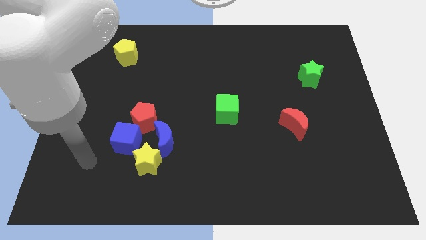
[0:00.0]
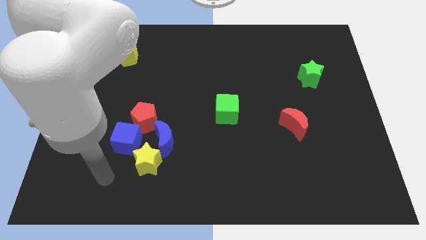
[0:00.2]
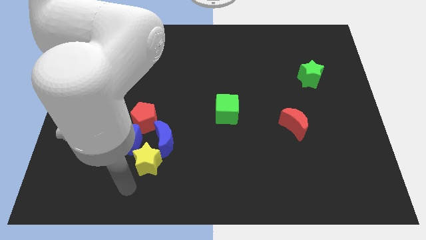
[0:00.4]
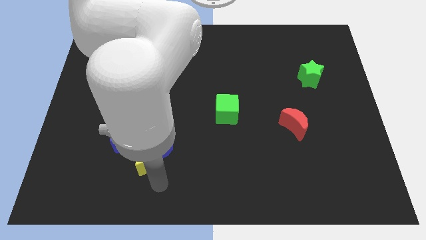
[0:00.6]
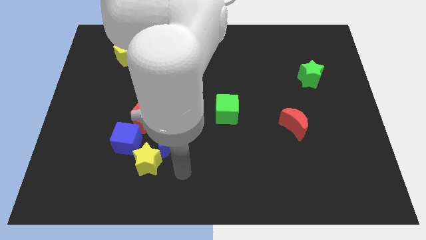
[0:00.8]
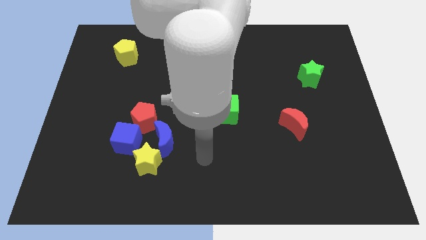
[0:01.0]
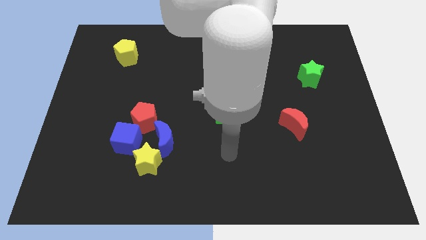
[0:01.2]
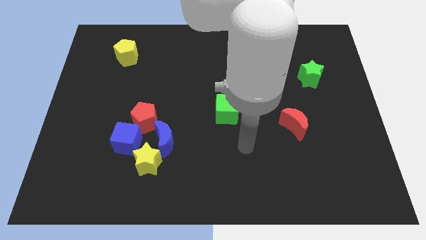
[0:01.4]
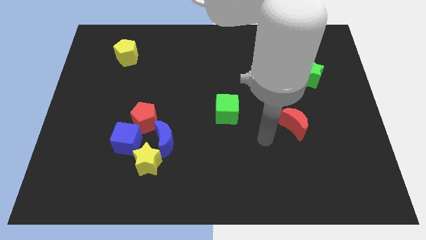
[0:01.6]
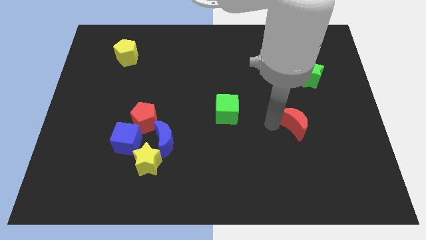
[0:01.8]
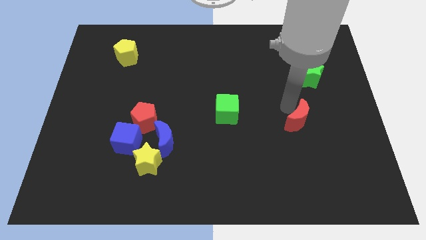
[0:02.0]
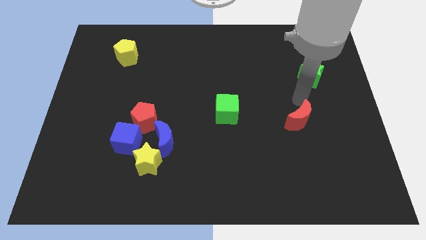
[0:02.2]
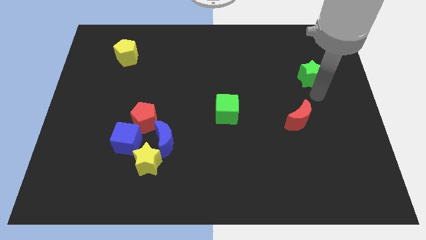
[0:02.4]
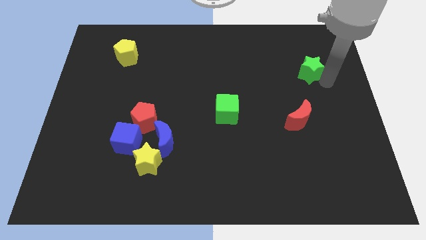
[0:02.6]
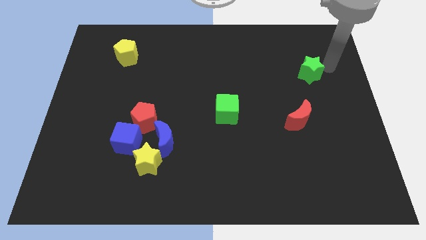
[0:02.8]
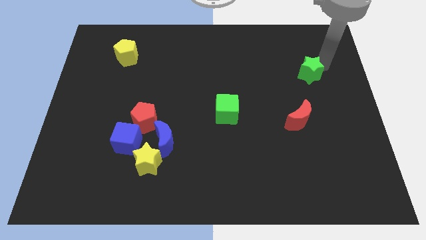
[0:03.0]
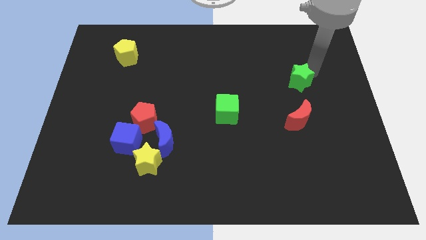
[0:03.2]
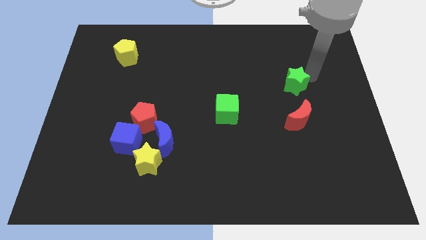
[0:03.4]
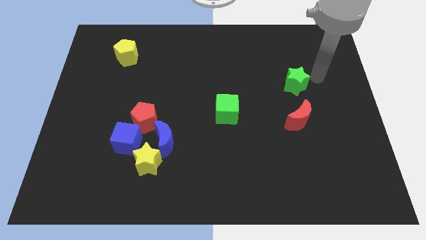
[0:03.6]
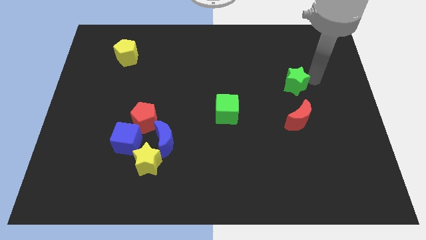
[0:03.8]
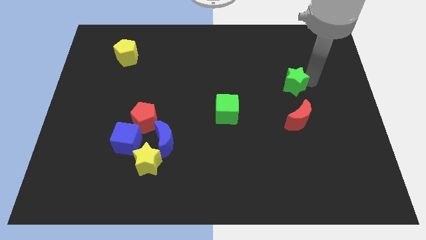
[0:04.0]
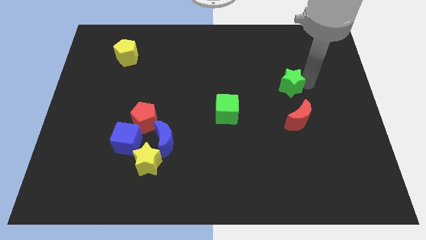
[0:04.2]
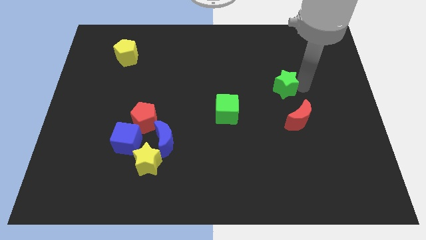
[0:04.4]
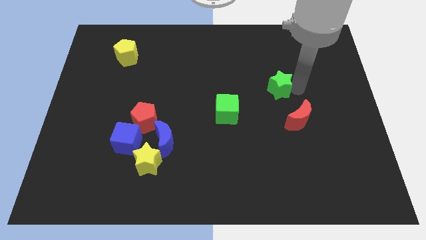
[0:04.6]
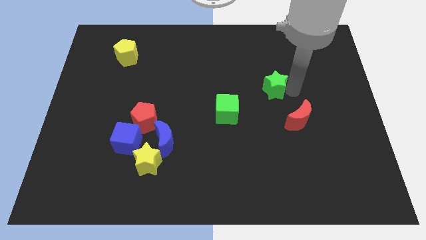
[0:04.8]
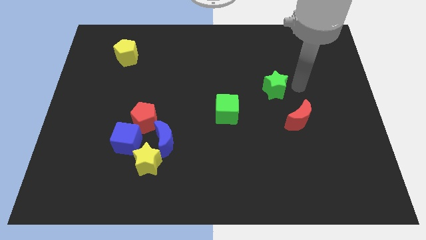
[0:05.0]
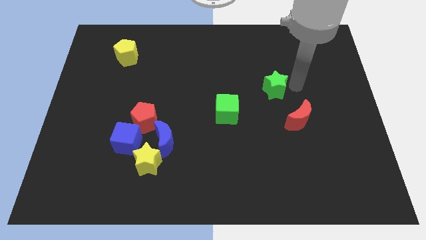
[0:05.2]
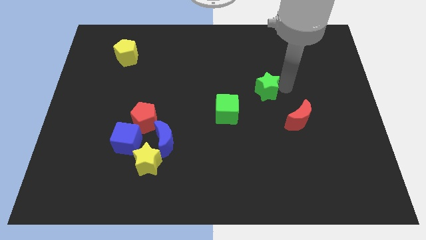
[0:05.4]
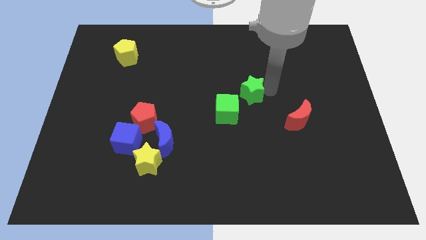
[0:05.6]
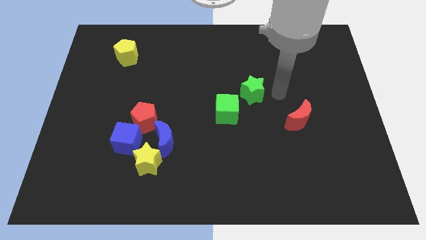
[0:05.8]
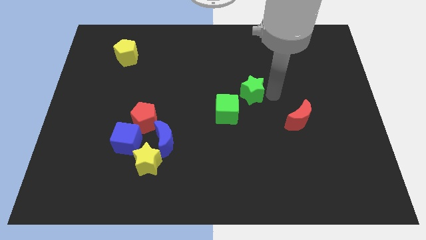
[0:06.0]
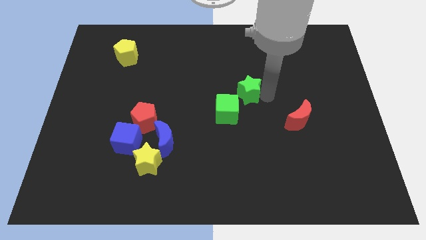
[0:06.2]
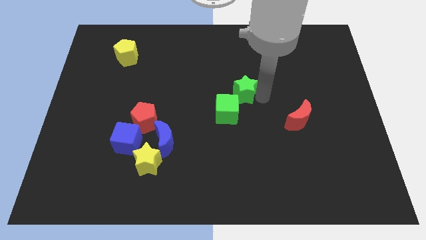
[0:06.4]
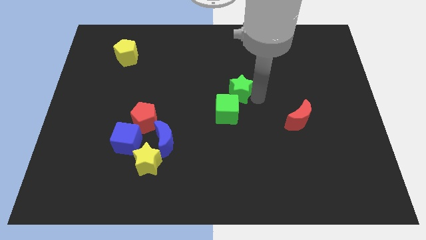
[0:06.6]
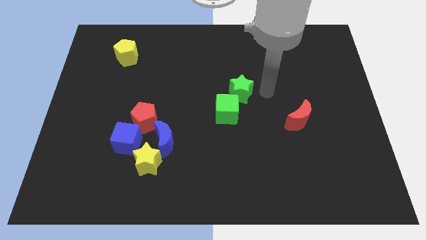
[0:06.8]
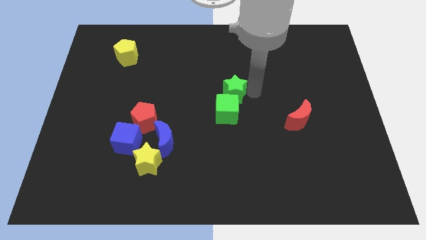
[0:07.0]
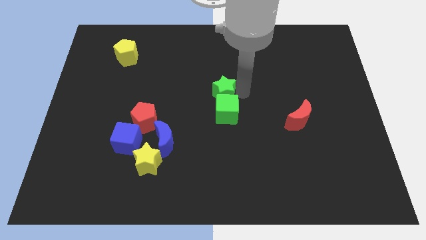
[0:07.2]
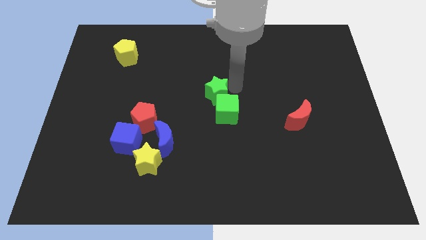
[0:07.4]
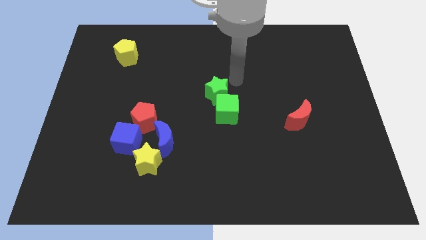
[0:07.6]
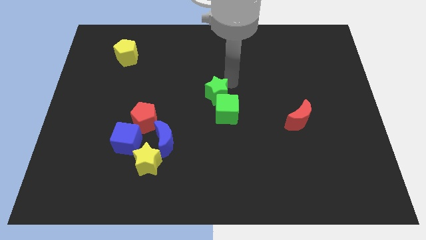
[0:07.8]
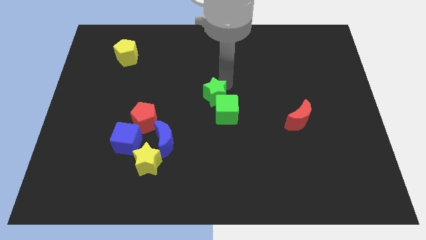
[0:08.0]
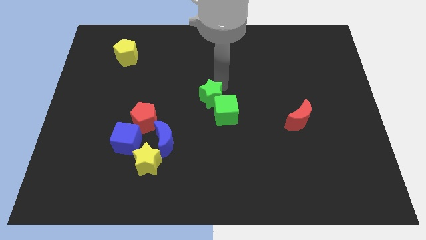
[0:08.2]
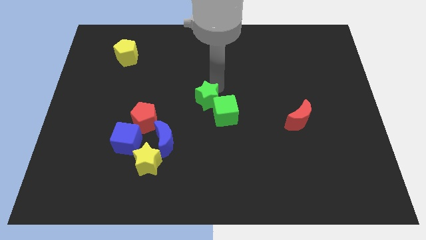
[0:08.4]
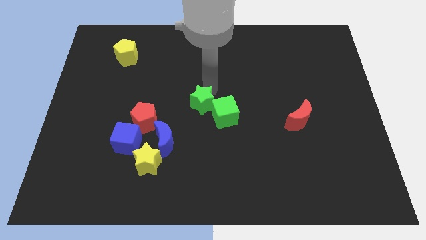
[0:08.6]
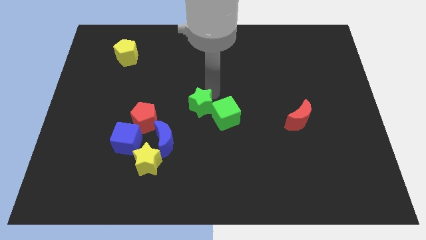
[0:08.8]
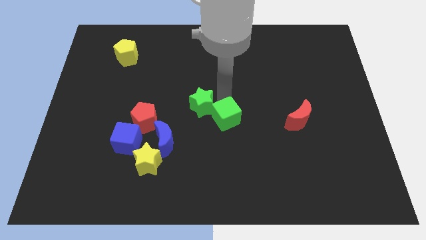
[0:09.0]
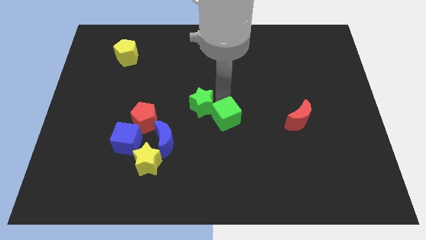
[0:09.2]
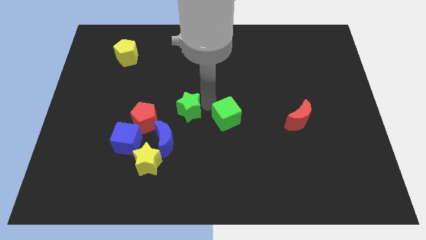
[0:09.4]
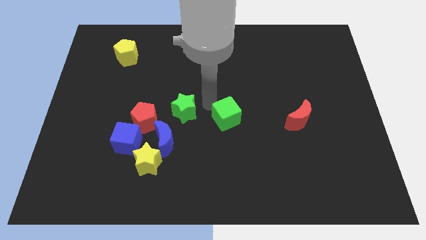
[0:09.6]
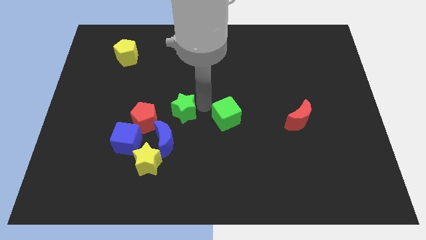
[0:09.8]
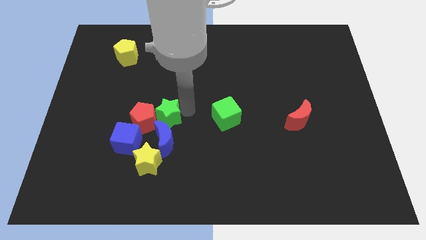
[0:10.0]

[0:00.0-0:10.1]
move the green star close to the red pentagon

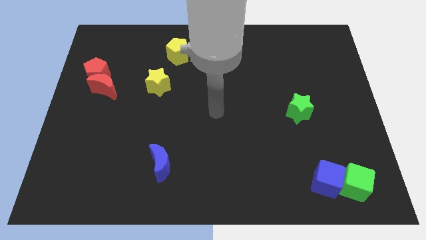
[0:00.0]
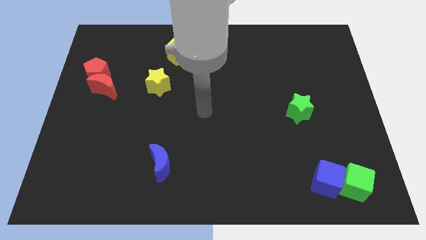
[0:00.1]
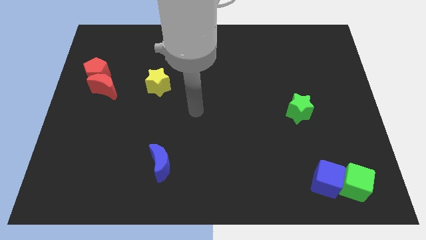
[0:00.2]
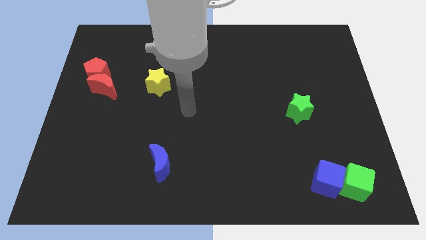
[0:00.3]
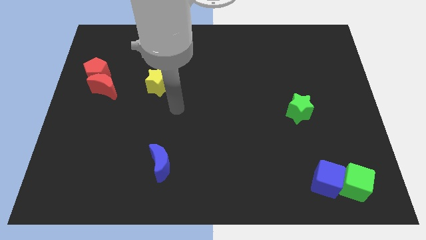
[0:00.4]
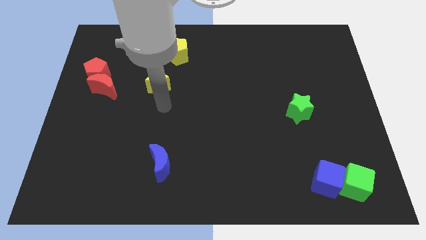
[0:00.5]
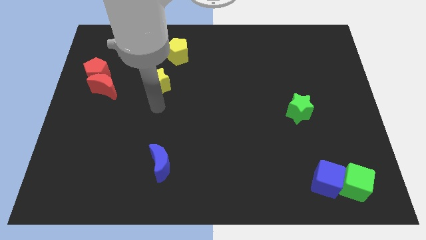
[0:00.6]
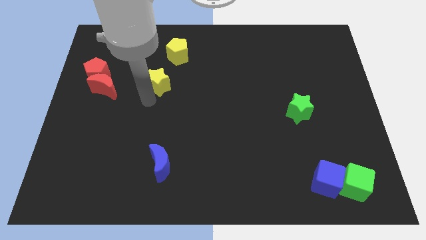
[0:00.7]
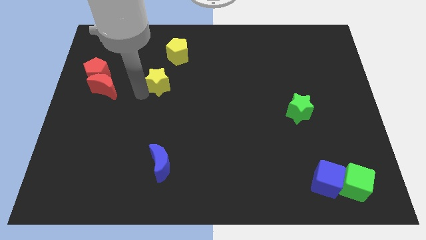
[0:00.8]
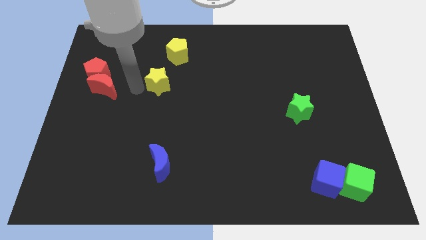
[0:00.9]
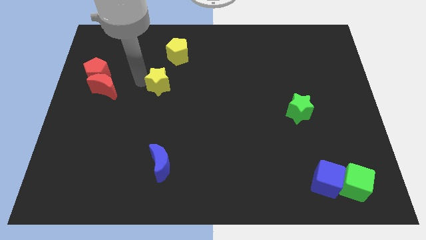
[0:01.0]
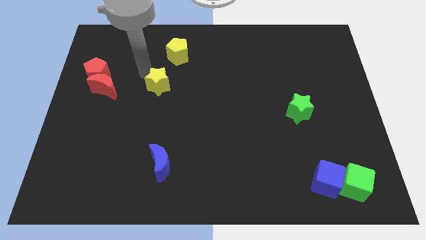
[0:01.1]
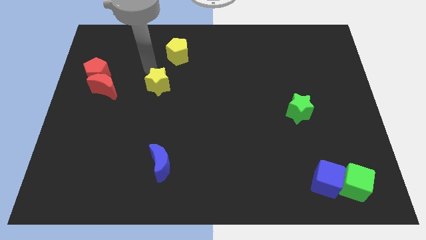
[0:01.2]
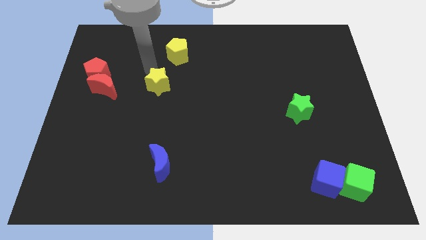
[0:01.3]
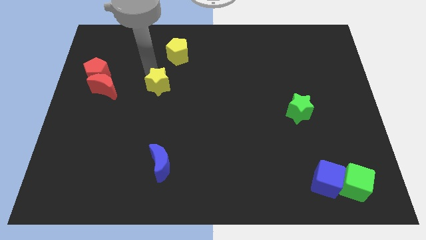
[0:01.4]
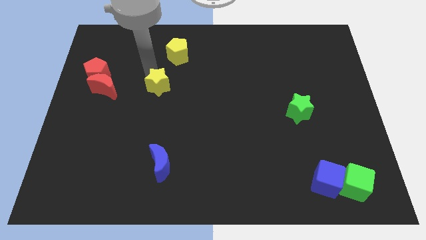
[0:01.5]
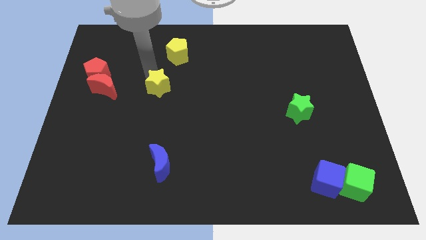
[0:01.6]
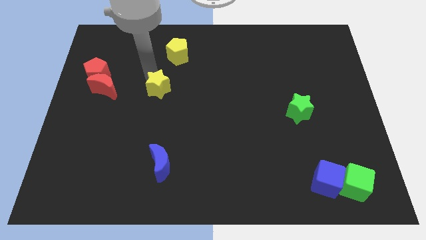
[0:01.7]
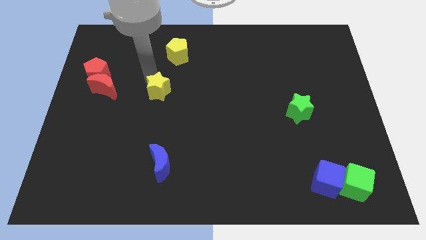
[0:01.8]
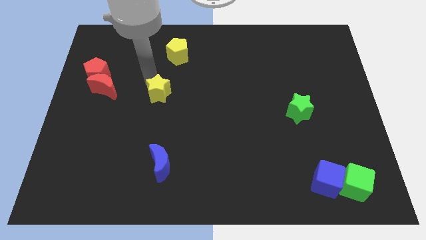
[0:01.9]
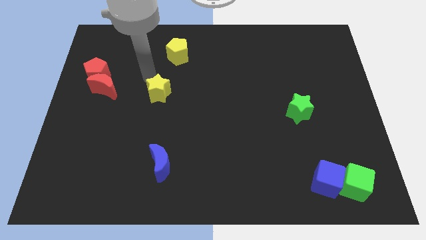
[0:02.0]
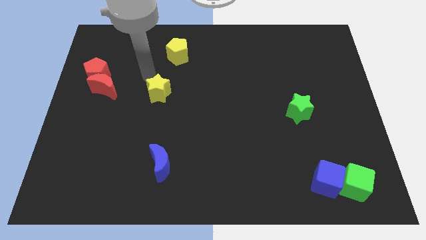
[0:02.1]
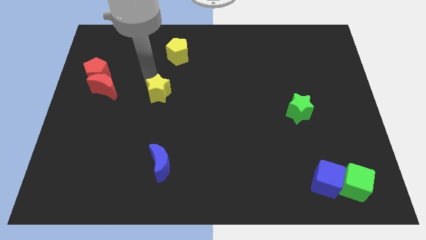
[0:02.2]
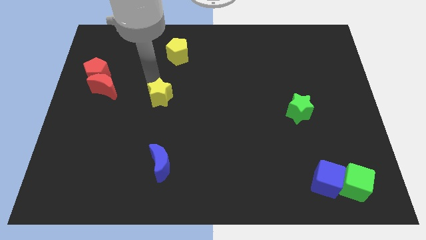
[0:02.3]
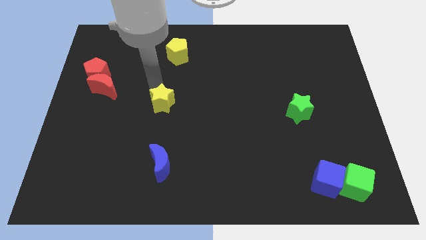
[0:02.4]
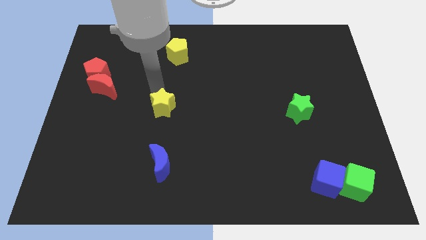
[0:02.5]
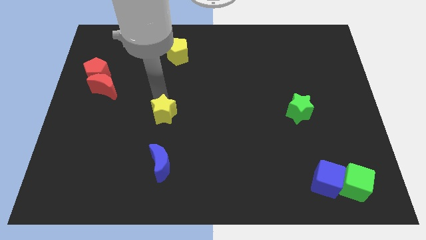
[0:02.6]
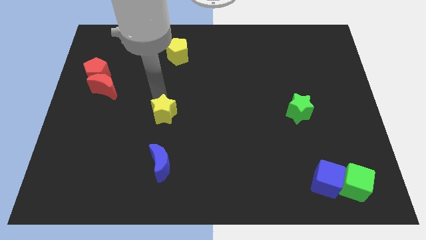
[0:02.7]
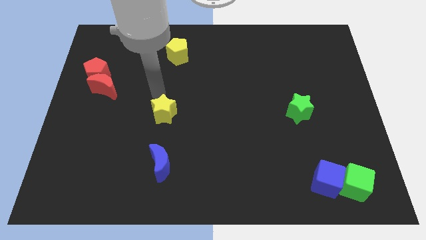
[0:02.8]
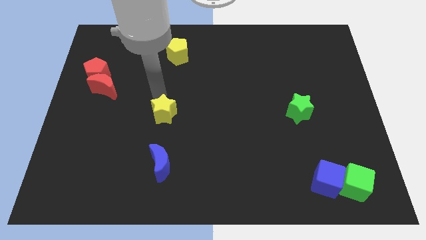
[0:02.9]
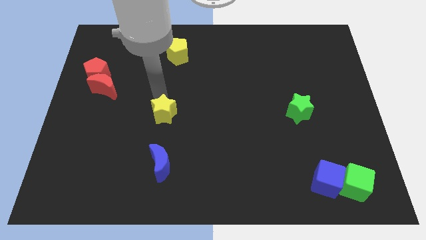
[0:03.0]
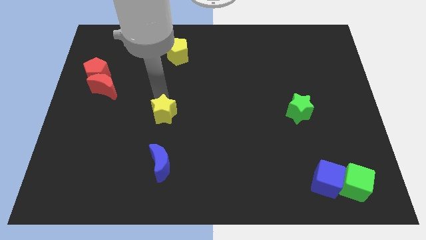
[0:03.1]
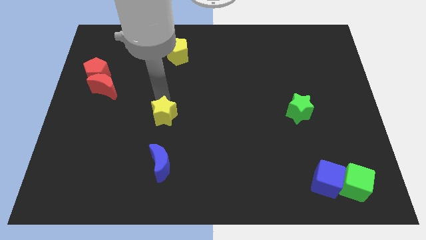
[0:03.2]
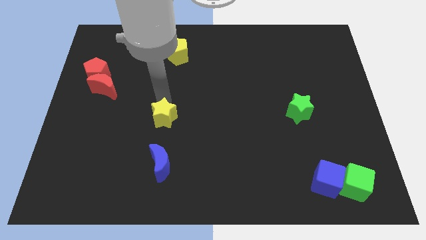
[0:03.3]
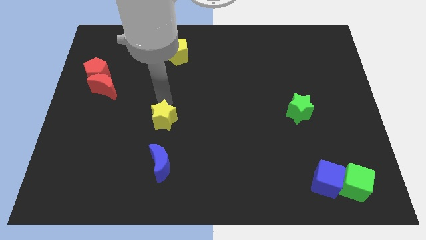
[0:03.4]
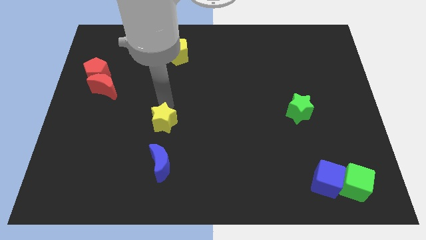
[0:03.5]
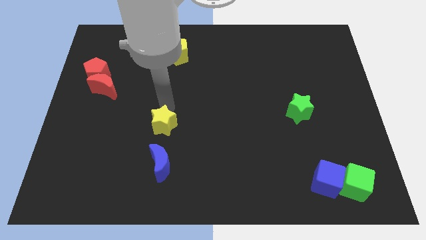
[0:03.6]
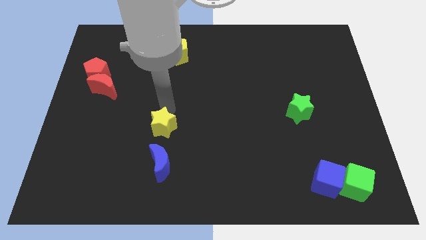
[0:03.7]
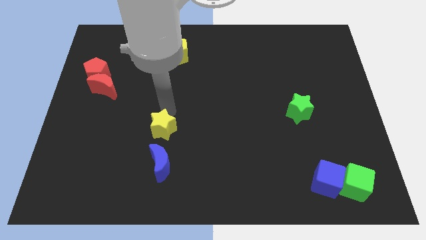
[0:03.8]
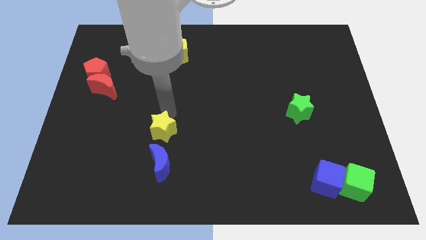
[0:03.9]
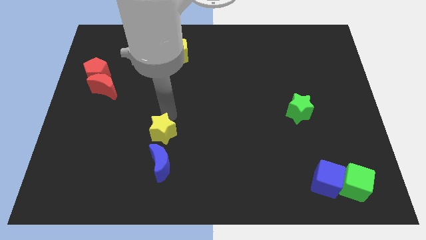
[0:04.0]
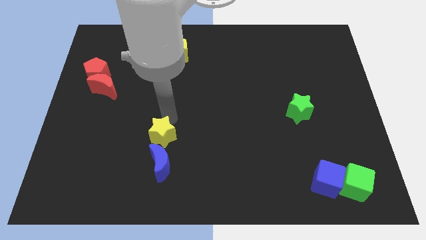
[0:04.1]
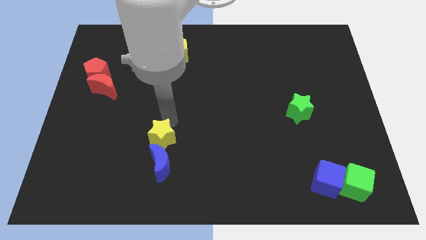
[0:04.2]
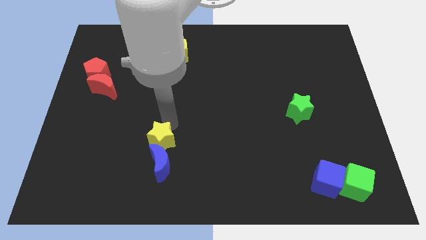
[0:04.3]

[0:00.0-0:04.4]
push the yellow star next to the blue moon
